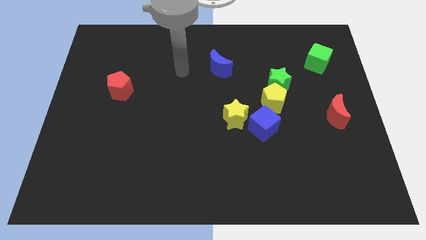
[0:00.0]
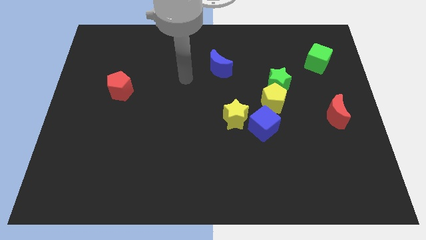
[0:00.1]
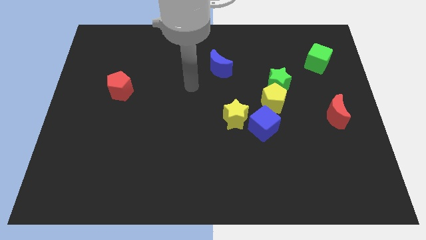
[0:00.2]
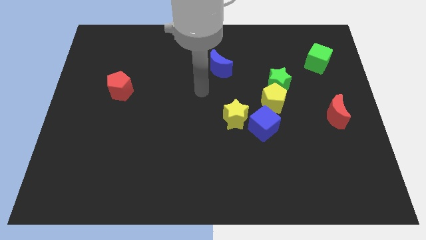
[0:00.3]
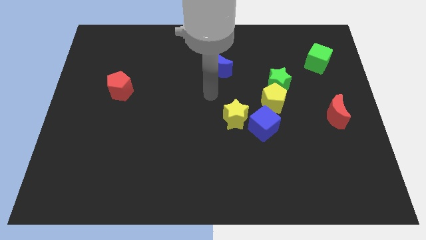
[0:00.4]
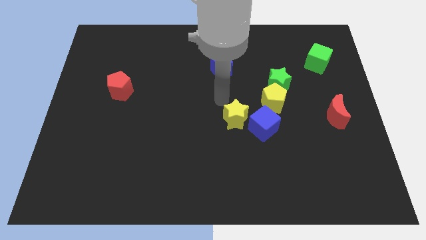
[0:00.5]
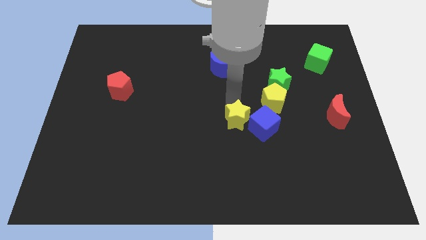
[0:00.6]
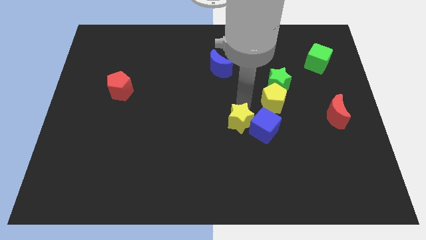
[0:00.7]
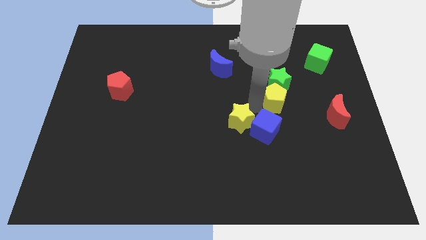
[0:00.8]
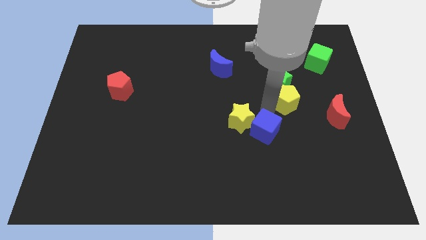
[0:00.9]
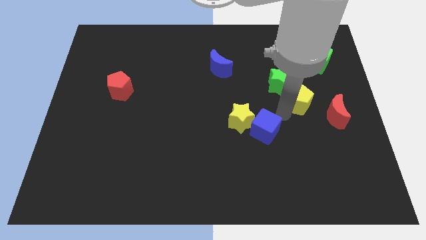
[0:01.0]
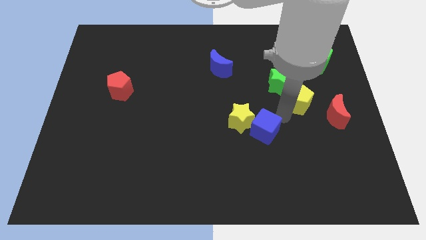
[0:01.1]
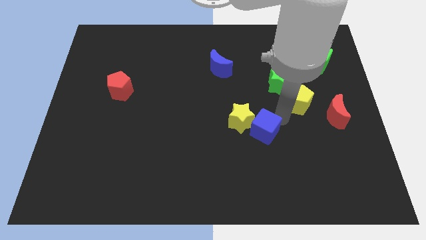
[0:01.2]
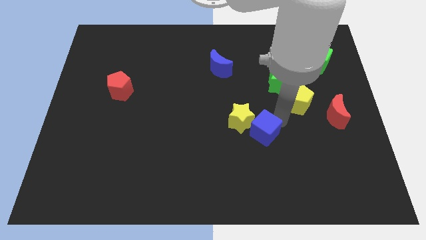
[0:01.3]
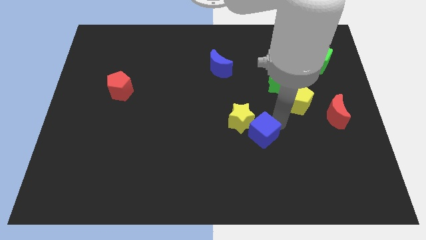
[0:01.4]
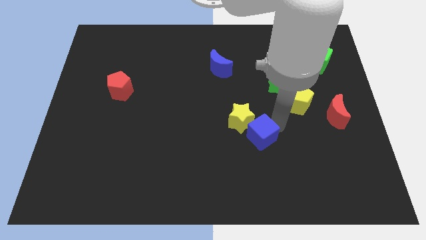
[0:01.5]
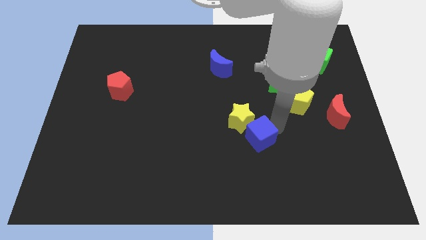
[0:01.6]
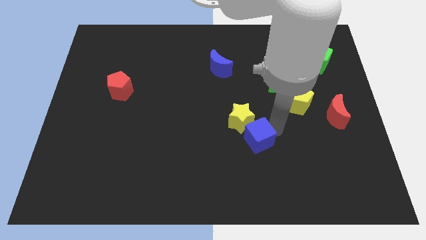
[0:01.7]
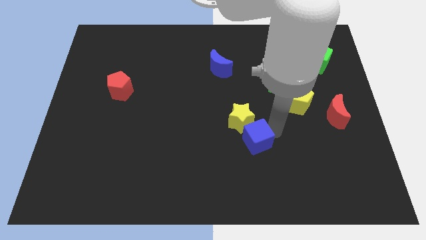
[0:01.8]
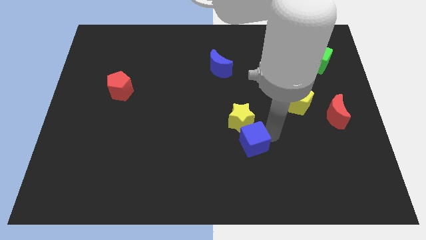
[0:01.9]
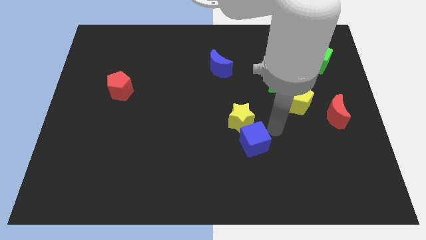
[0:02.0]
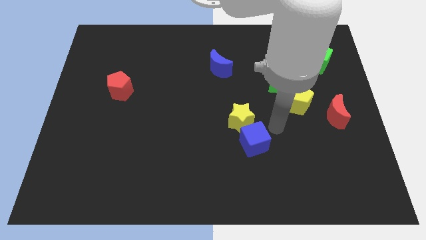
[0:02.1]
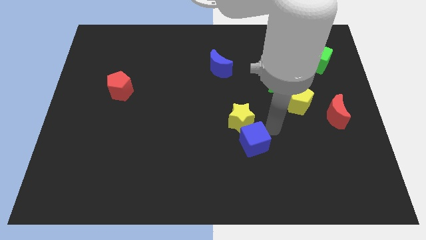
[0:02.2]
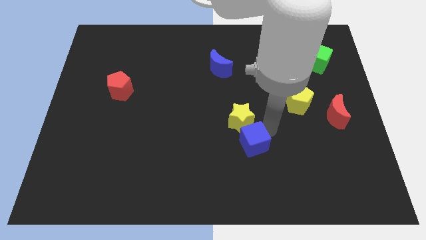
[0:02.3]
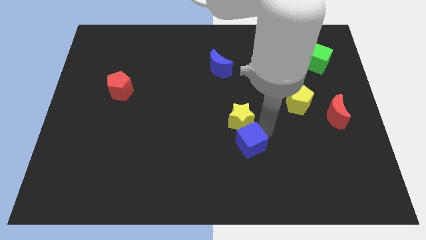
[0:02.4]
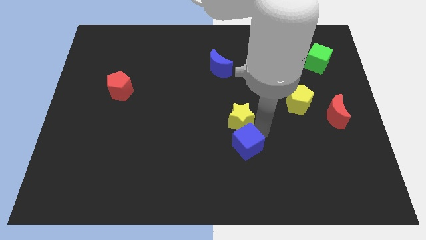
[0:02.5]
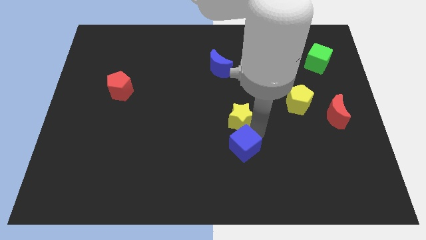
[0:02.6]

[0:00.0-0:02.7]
slightly slide the blue cube downwards and then to the left

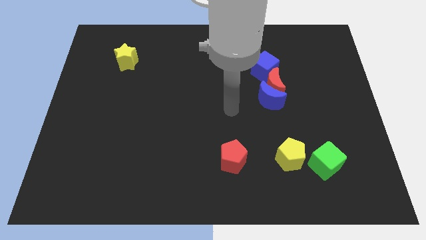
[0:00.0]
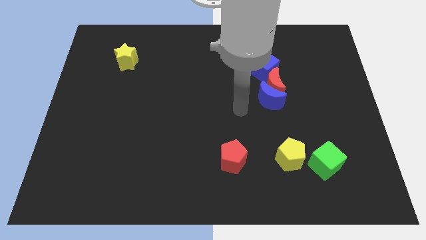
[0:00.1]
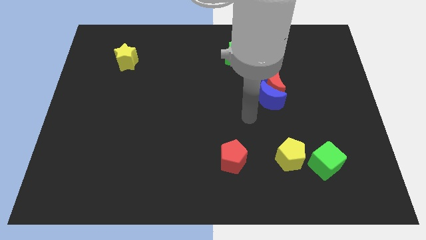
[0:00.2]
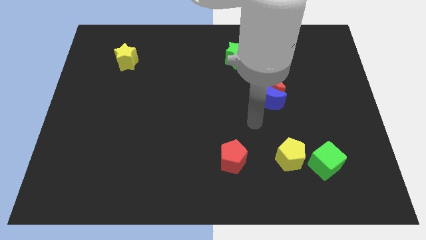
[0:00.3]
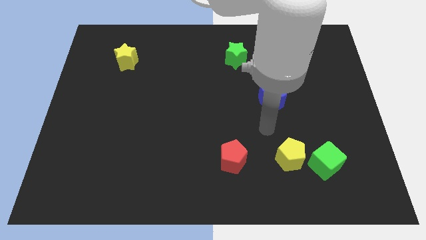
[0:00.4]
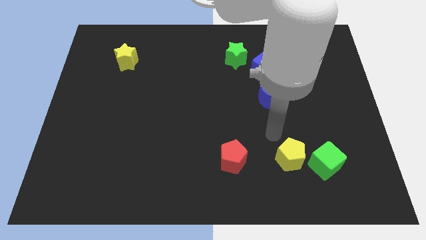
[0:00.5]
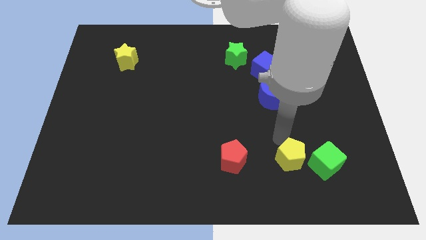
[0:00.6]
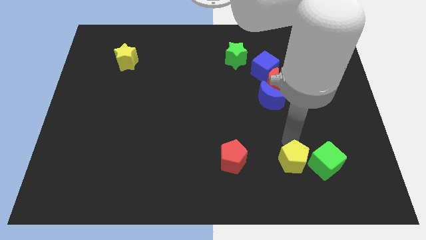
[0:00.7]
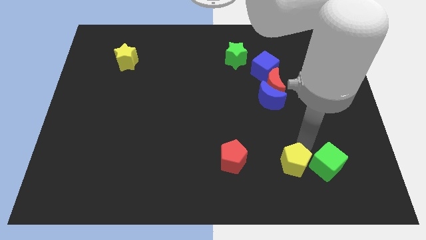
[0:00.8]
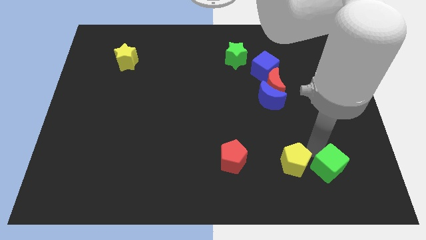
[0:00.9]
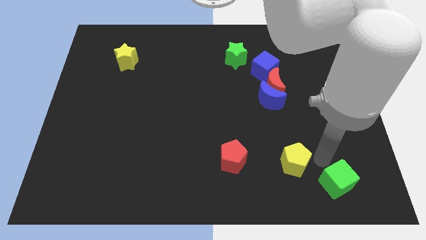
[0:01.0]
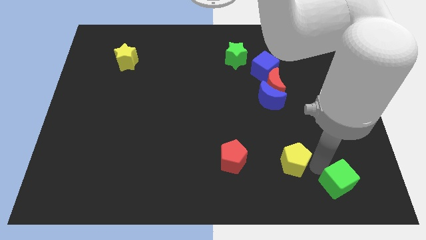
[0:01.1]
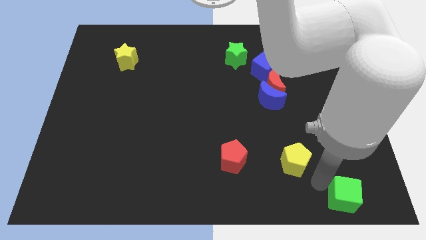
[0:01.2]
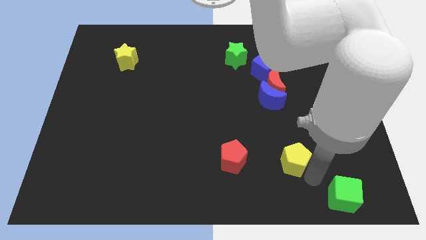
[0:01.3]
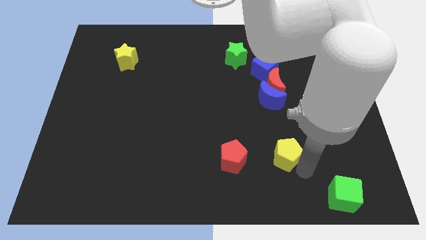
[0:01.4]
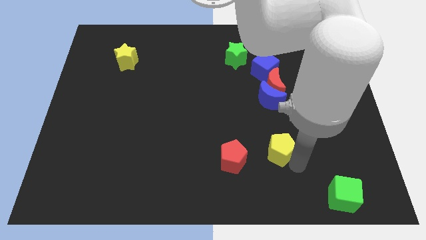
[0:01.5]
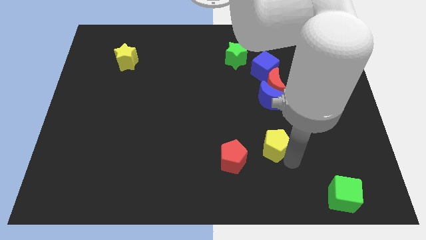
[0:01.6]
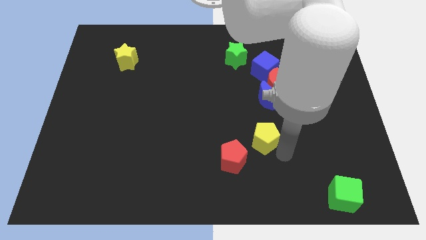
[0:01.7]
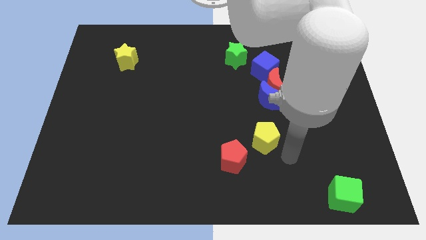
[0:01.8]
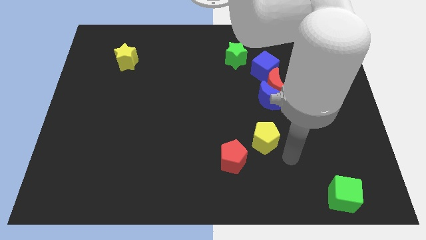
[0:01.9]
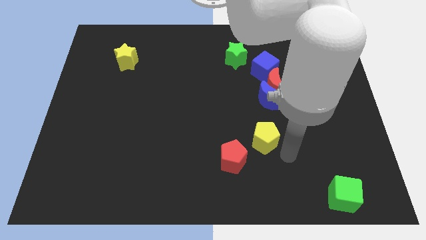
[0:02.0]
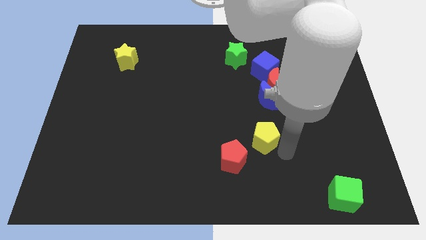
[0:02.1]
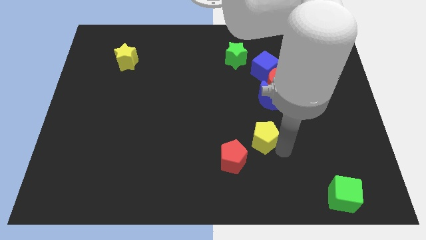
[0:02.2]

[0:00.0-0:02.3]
push the yellow pentagon upwards and then left a little bit

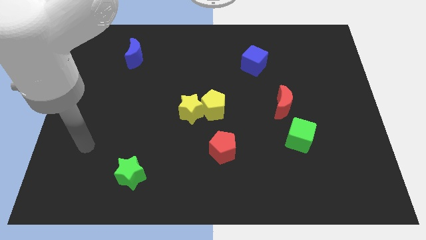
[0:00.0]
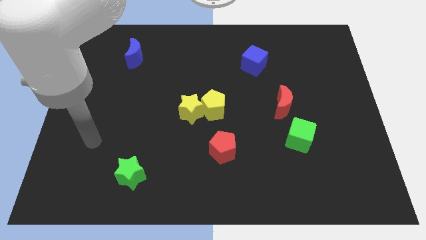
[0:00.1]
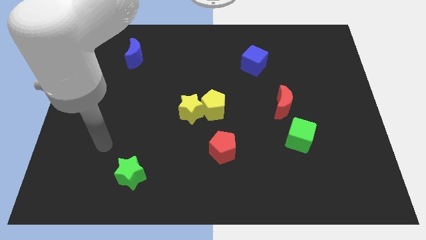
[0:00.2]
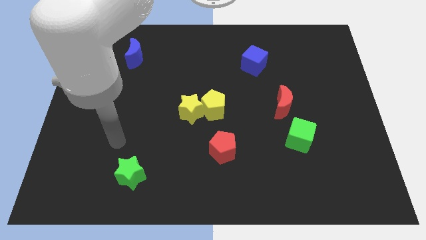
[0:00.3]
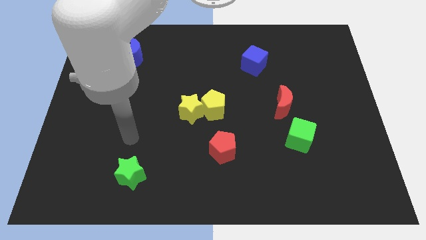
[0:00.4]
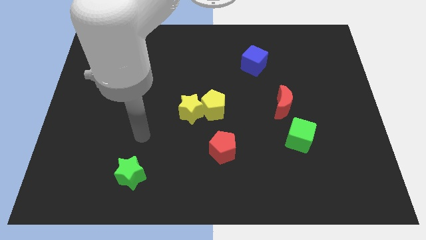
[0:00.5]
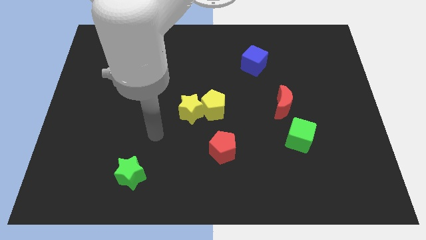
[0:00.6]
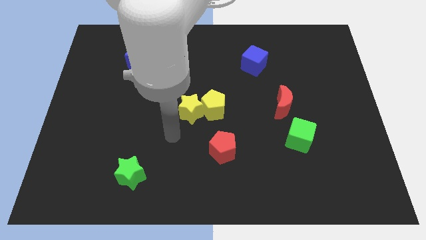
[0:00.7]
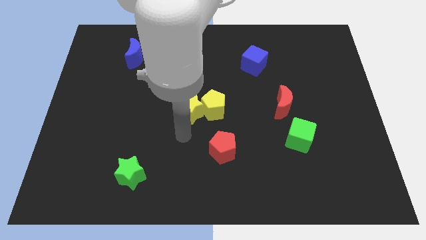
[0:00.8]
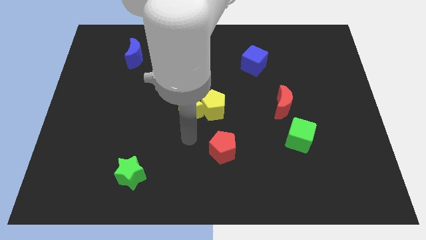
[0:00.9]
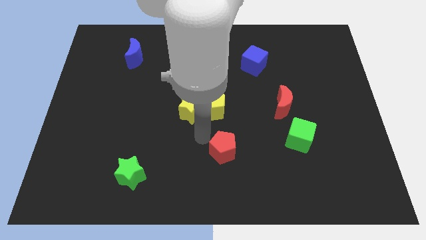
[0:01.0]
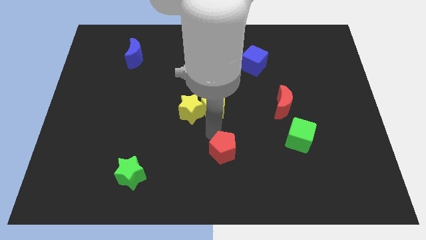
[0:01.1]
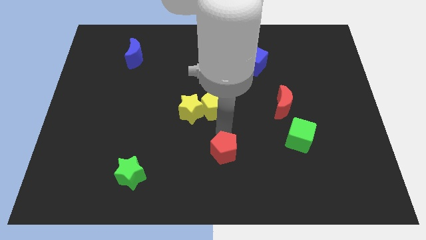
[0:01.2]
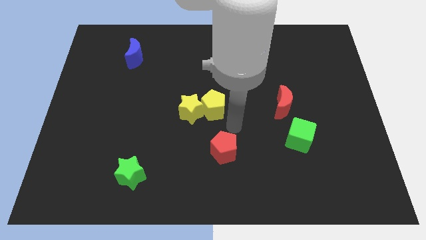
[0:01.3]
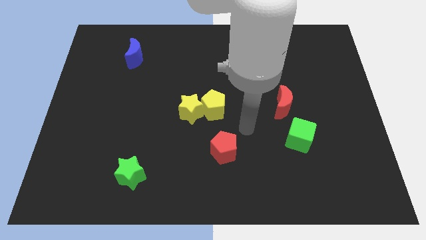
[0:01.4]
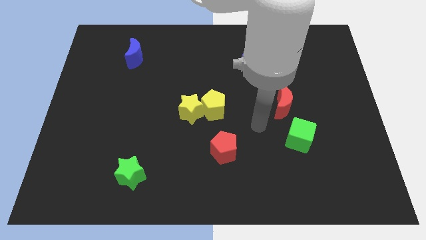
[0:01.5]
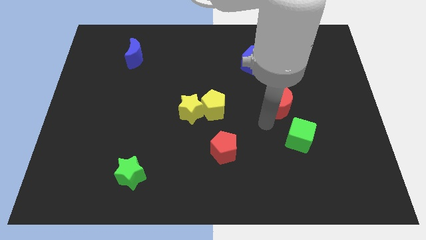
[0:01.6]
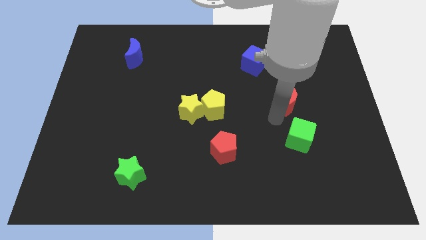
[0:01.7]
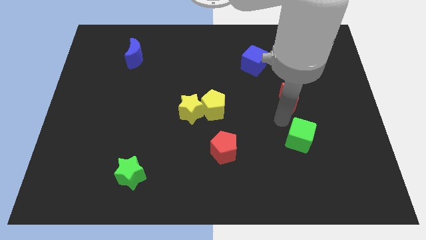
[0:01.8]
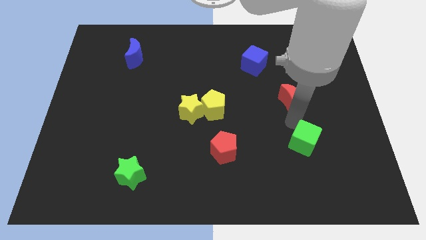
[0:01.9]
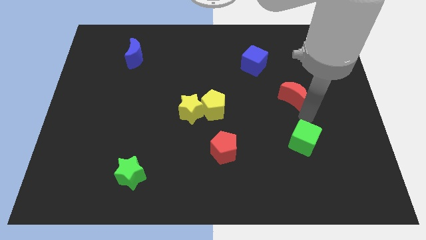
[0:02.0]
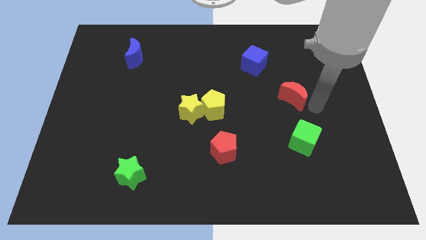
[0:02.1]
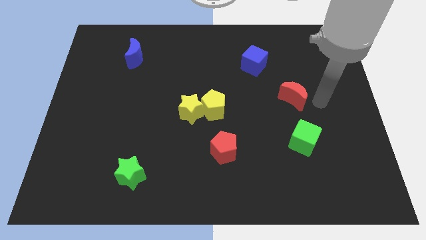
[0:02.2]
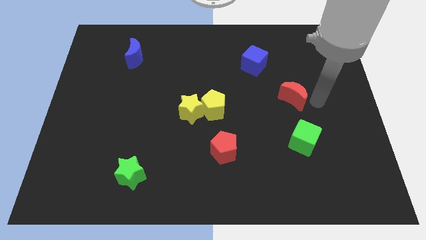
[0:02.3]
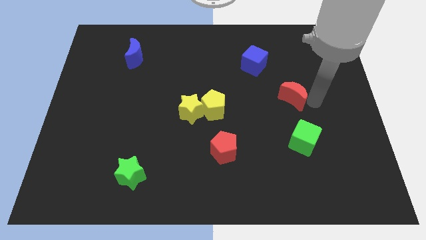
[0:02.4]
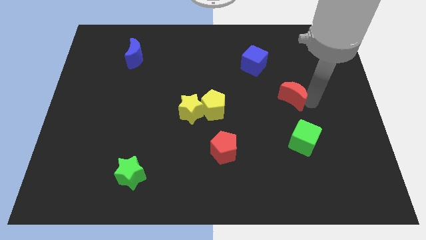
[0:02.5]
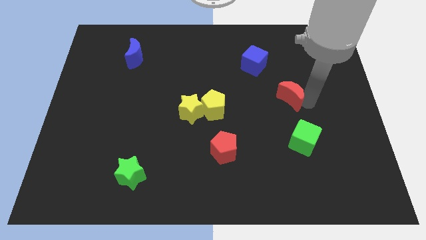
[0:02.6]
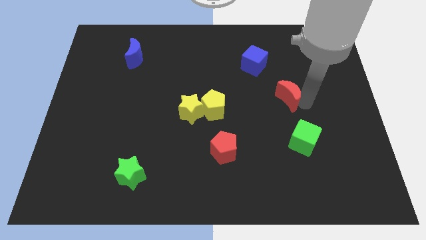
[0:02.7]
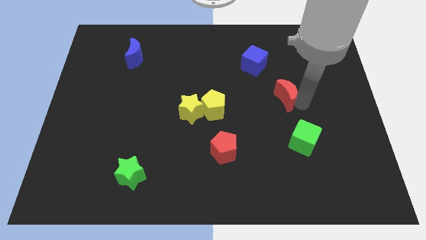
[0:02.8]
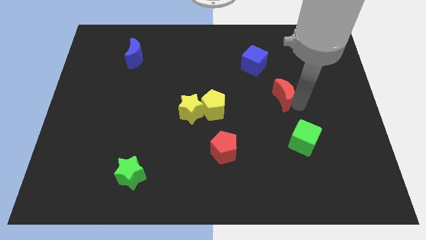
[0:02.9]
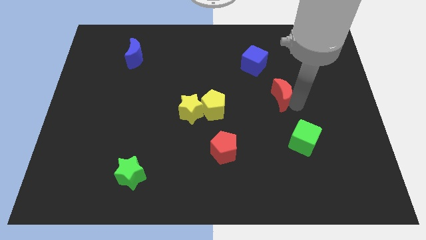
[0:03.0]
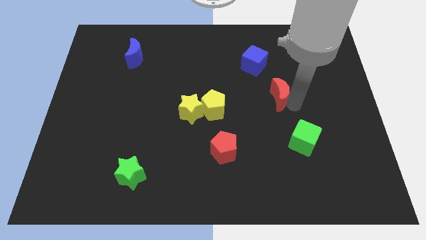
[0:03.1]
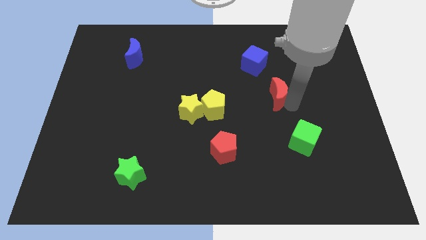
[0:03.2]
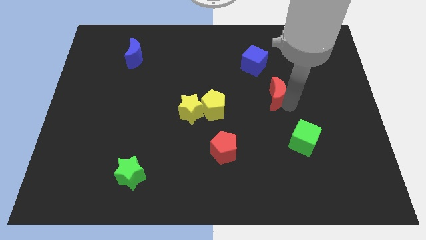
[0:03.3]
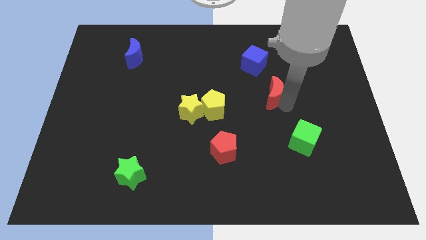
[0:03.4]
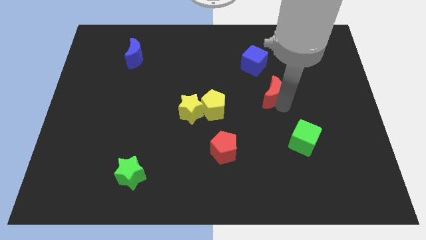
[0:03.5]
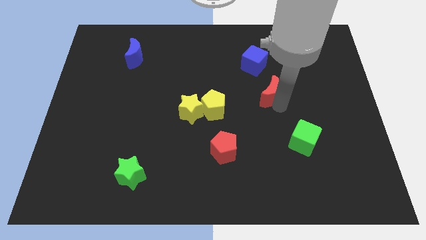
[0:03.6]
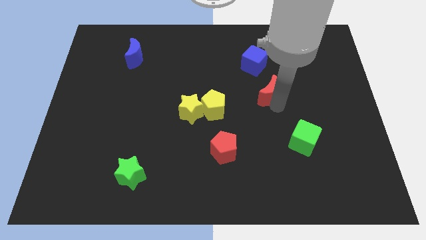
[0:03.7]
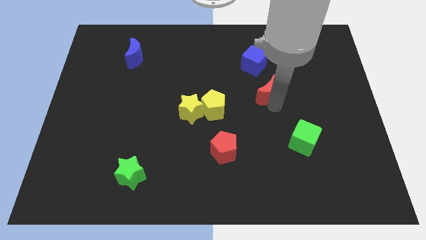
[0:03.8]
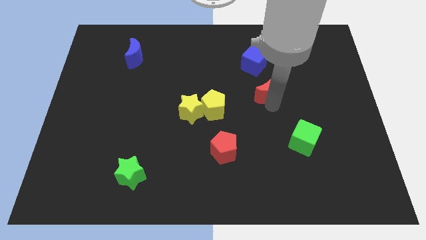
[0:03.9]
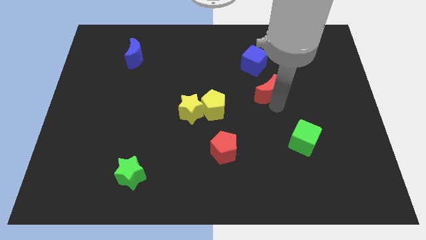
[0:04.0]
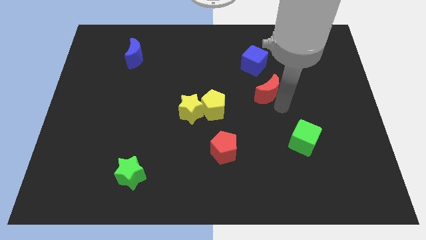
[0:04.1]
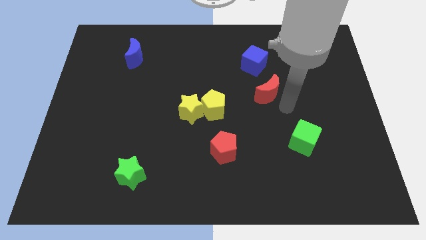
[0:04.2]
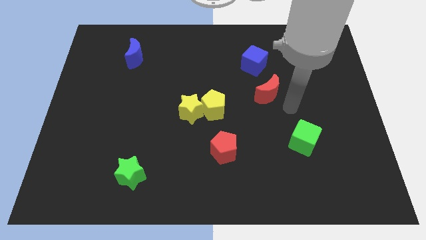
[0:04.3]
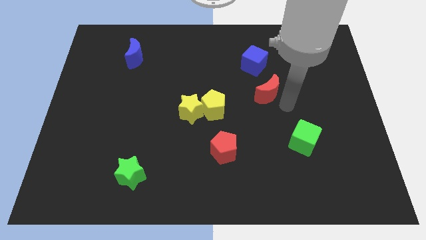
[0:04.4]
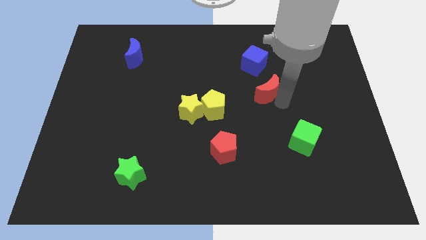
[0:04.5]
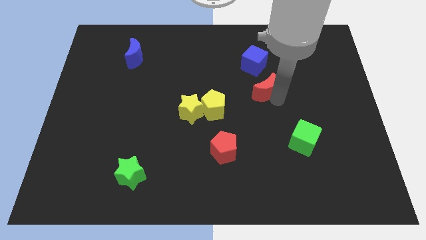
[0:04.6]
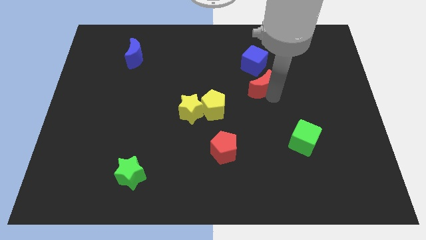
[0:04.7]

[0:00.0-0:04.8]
push the red moon up and to the left somewhat
